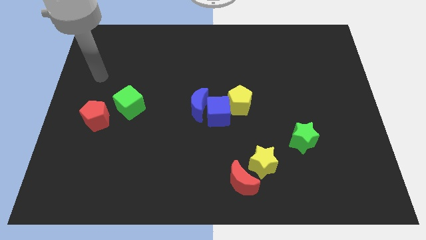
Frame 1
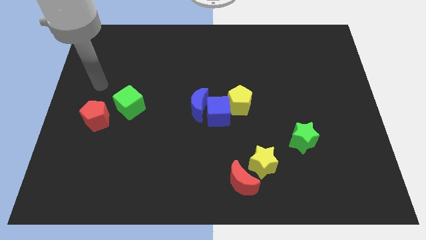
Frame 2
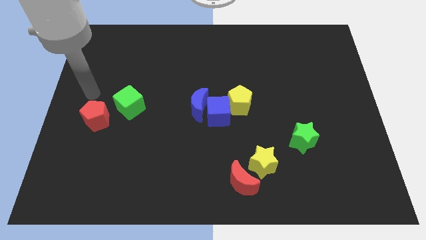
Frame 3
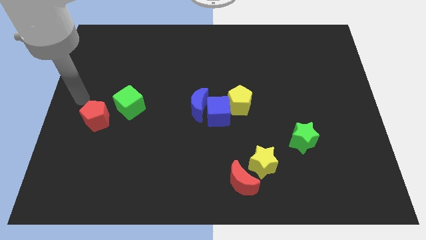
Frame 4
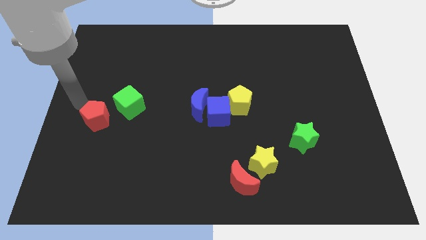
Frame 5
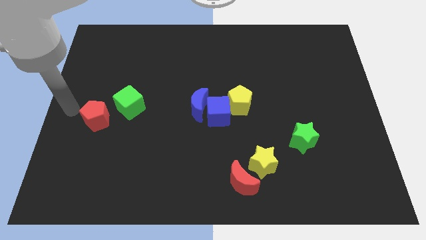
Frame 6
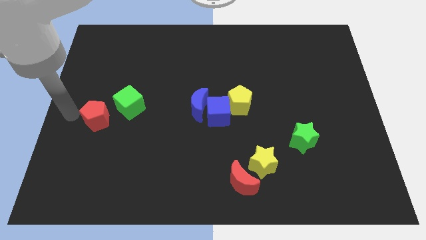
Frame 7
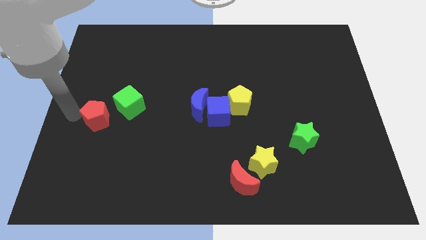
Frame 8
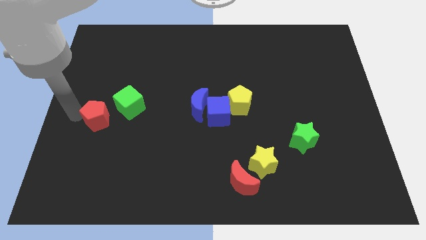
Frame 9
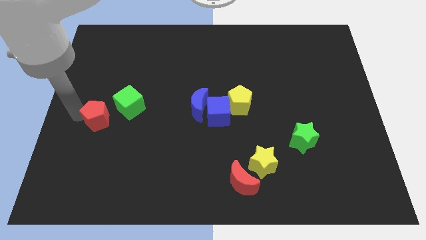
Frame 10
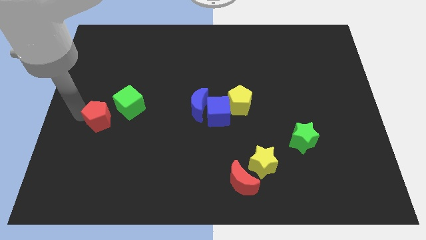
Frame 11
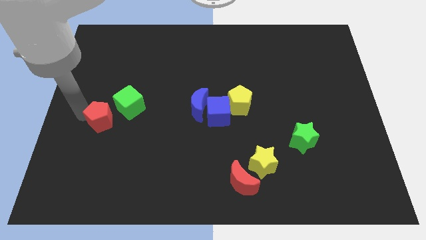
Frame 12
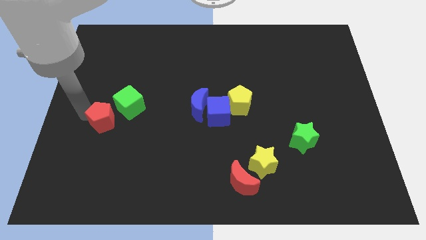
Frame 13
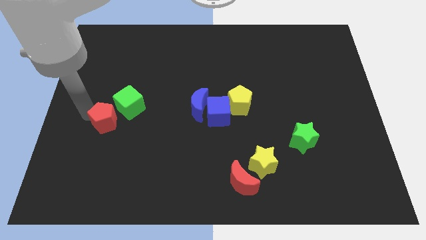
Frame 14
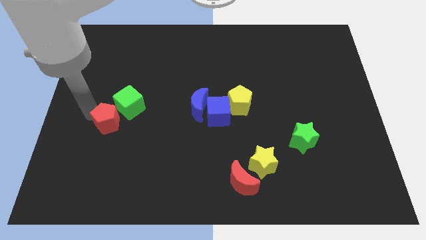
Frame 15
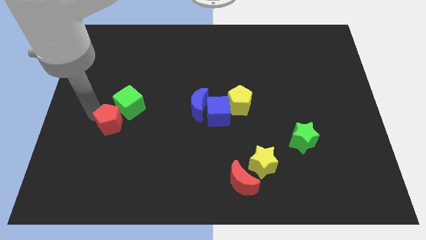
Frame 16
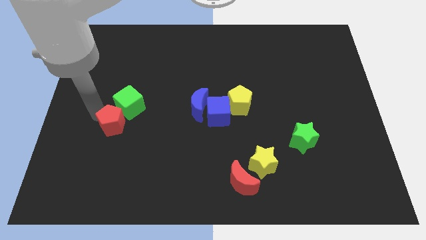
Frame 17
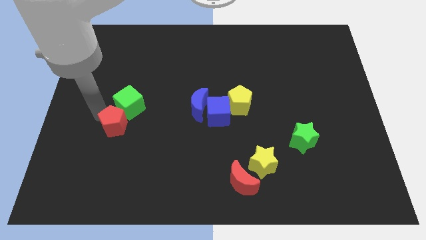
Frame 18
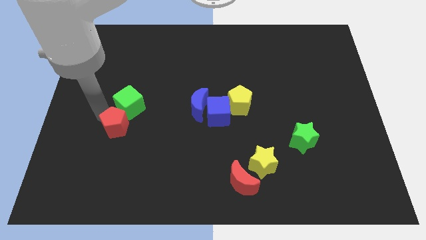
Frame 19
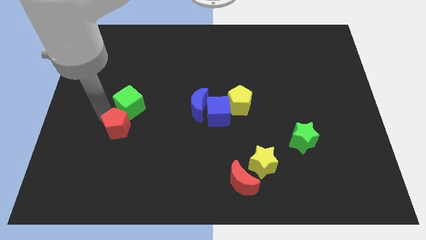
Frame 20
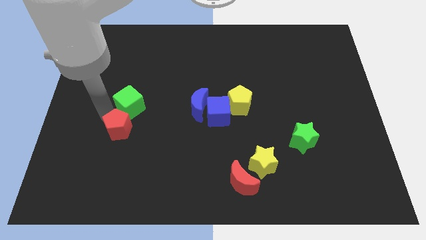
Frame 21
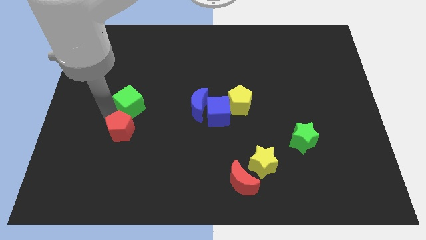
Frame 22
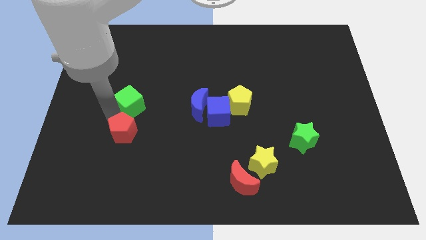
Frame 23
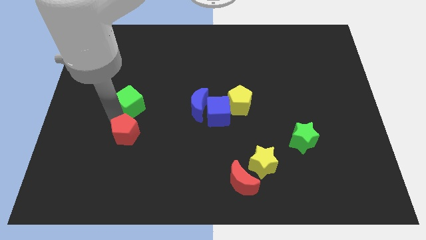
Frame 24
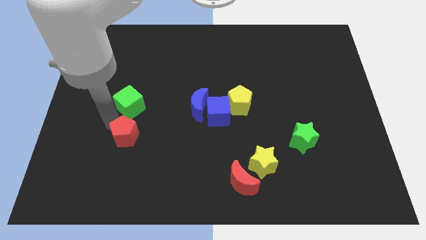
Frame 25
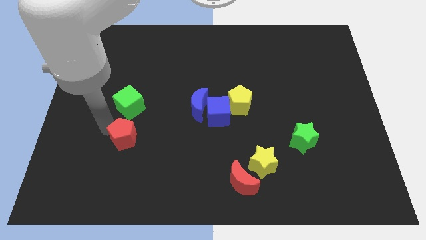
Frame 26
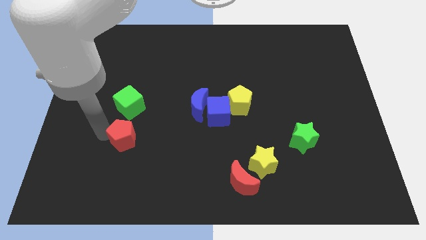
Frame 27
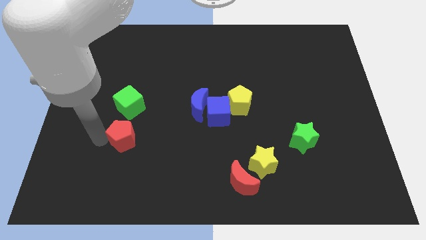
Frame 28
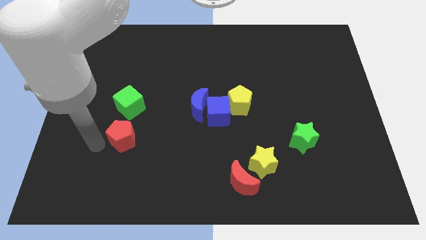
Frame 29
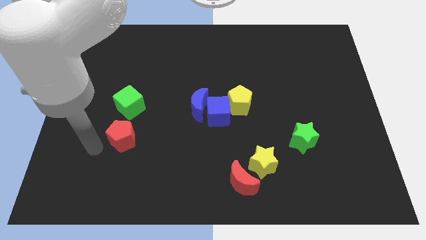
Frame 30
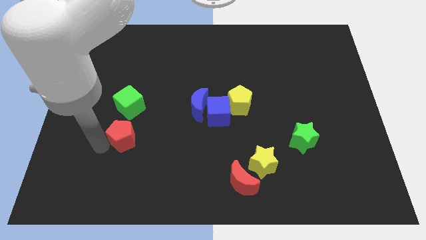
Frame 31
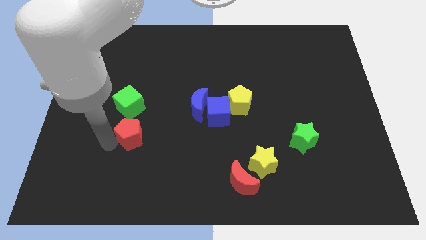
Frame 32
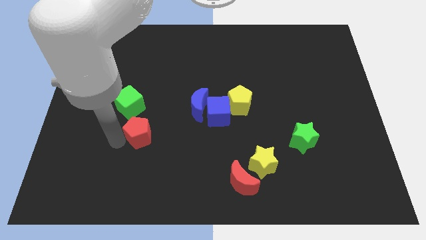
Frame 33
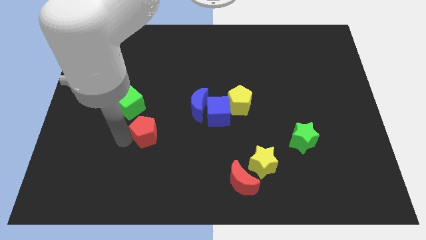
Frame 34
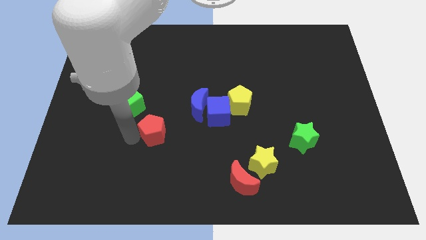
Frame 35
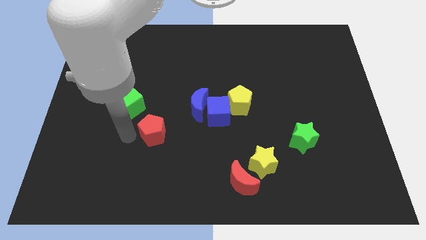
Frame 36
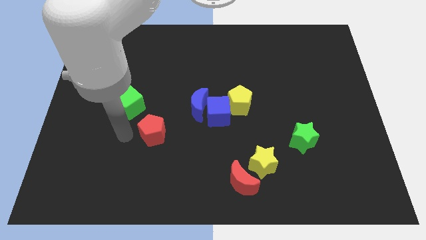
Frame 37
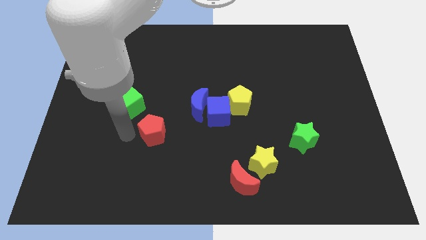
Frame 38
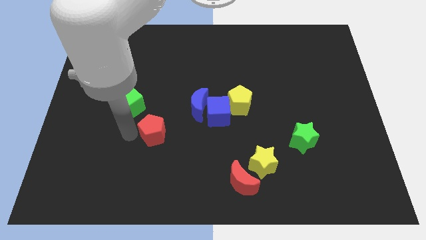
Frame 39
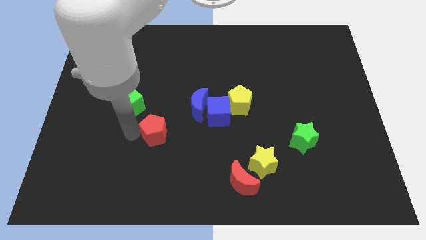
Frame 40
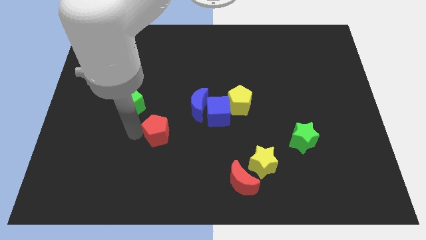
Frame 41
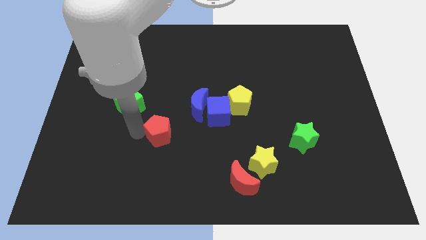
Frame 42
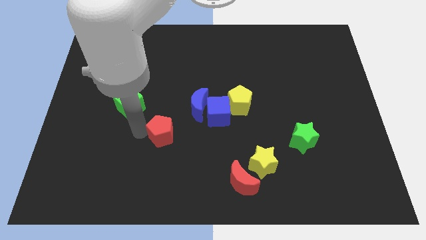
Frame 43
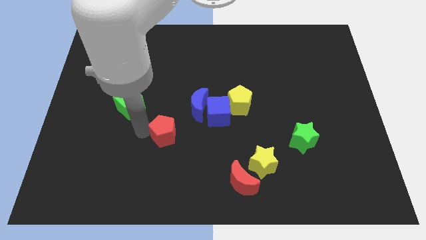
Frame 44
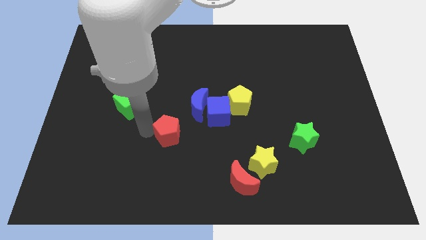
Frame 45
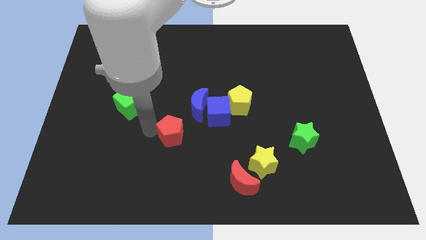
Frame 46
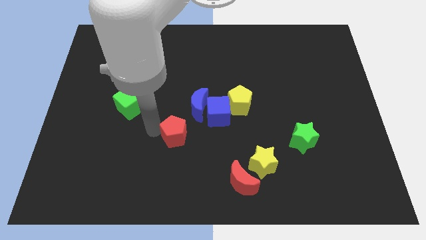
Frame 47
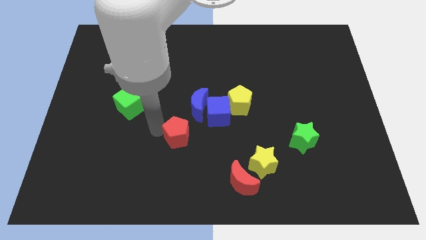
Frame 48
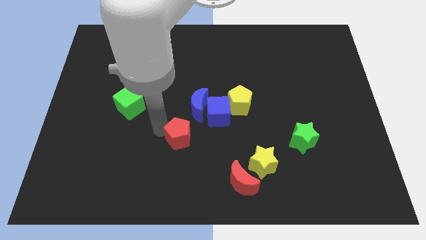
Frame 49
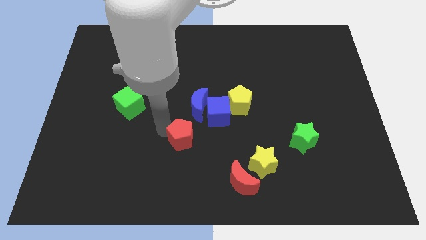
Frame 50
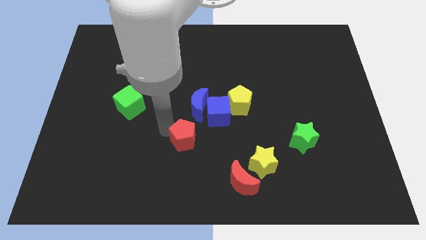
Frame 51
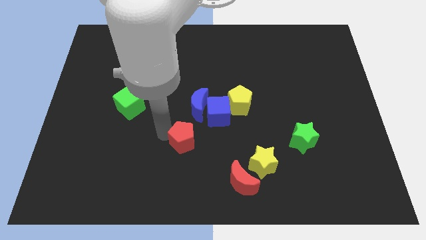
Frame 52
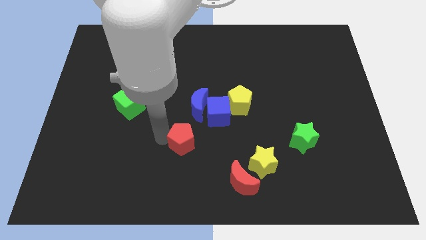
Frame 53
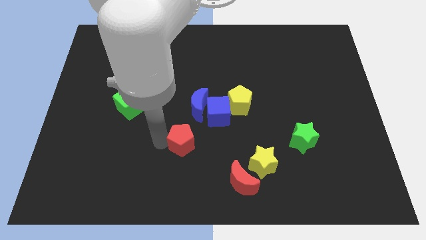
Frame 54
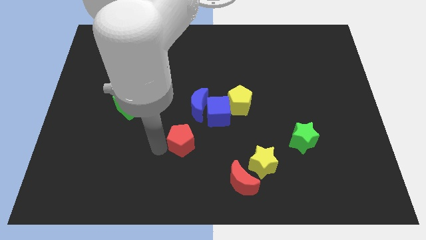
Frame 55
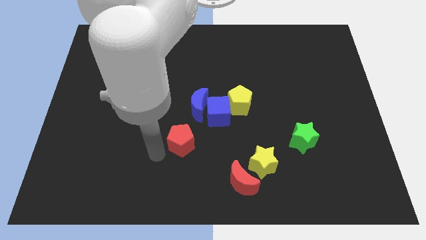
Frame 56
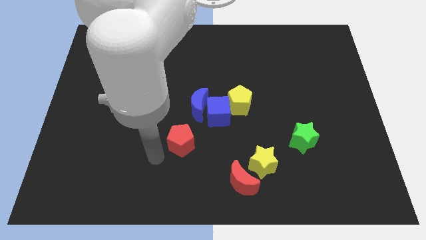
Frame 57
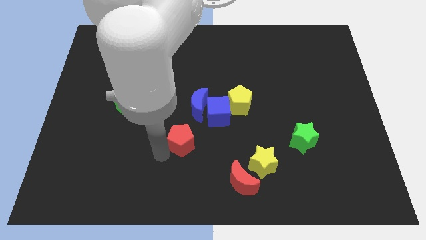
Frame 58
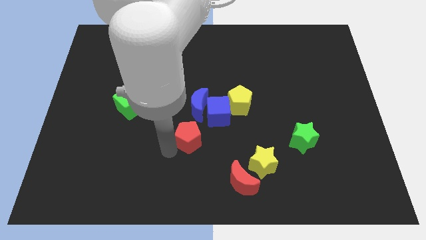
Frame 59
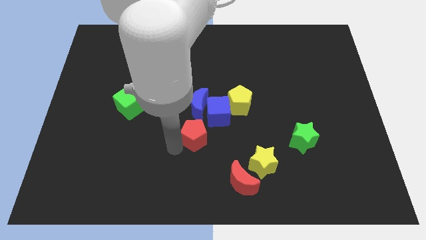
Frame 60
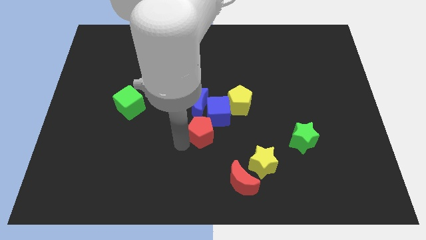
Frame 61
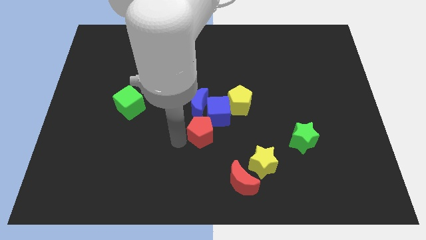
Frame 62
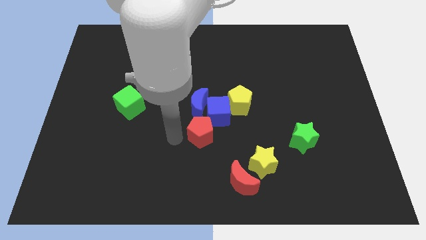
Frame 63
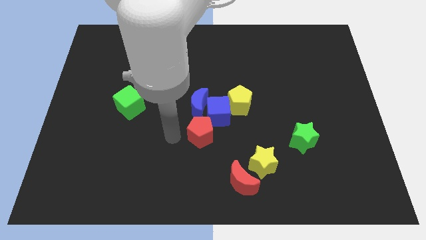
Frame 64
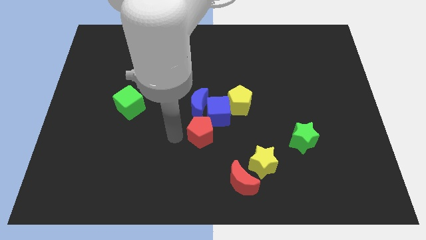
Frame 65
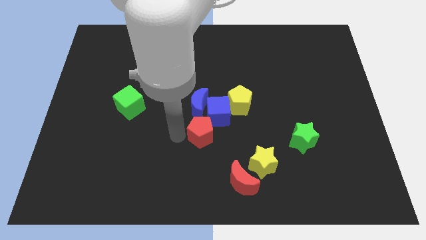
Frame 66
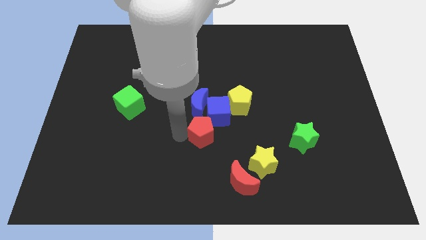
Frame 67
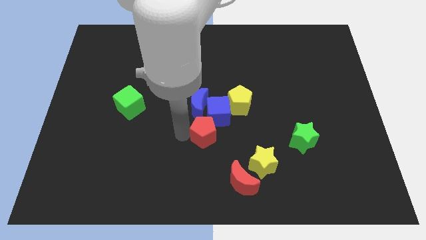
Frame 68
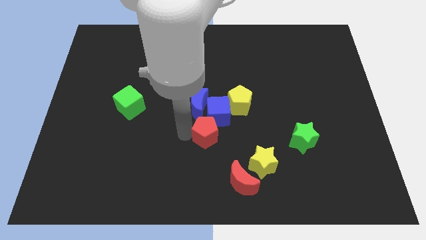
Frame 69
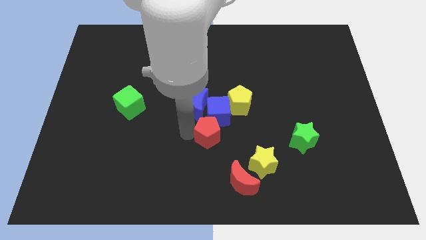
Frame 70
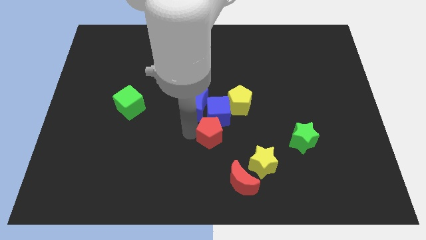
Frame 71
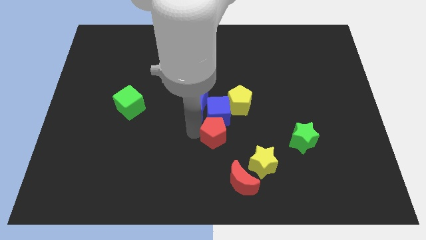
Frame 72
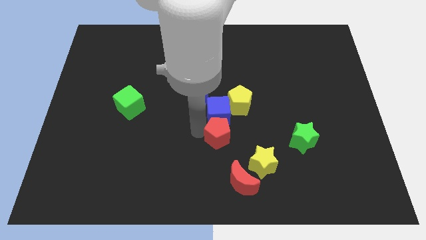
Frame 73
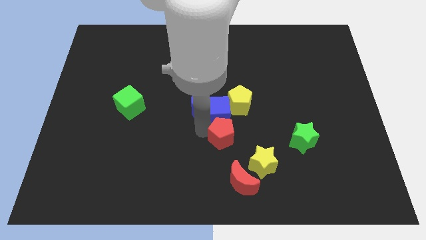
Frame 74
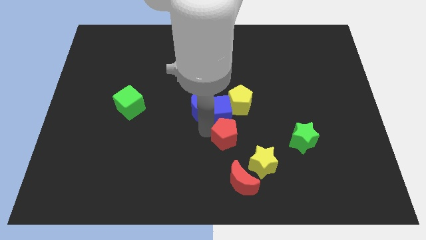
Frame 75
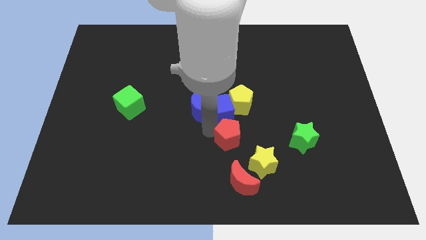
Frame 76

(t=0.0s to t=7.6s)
slide the red pentagon left of the green star

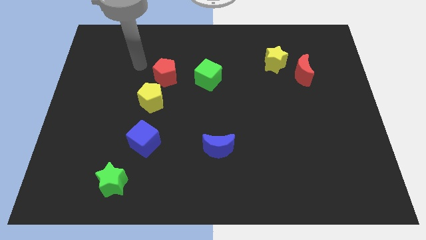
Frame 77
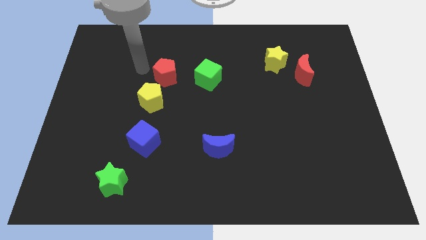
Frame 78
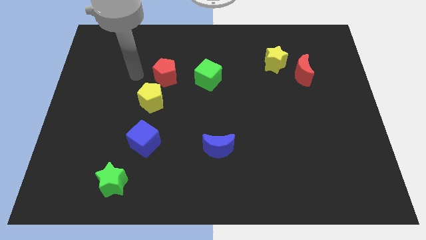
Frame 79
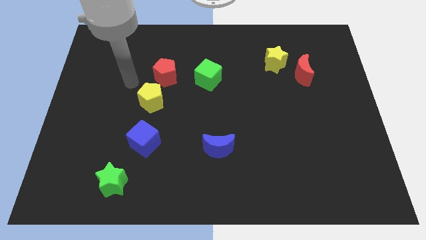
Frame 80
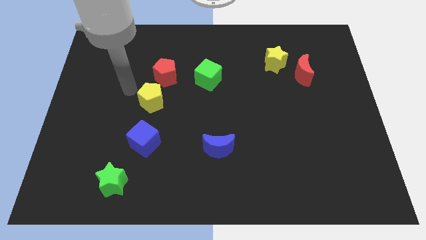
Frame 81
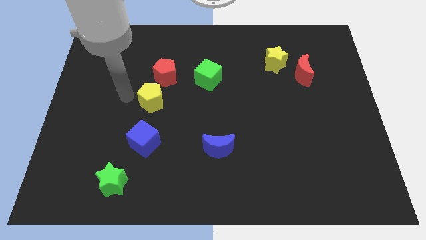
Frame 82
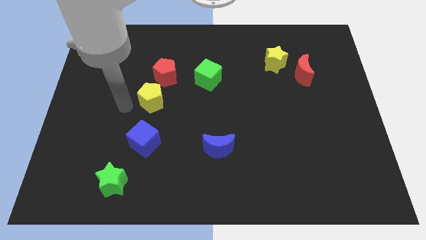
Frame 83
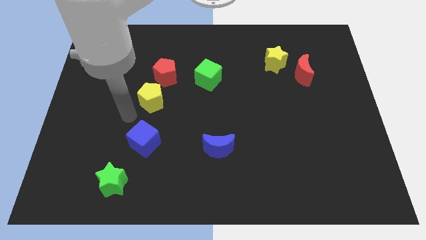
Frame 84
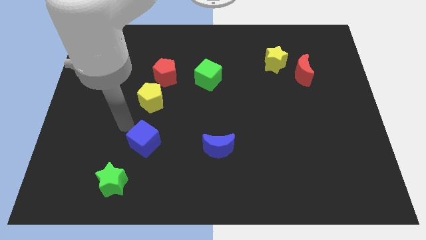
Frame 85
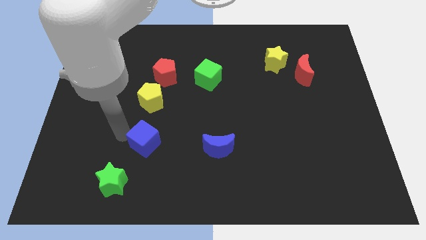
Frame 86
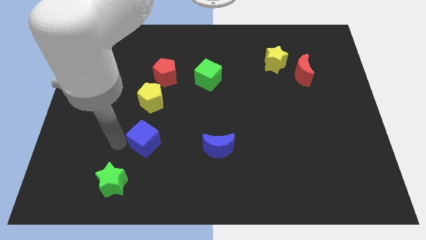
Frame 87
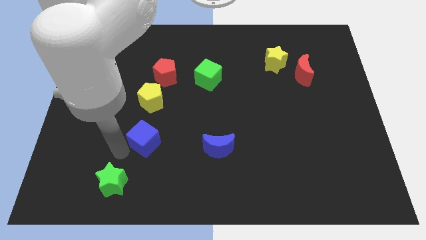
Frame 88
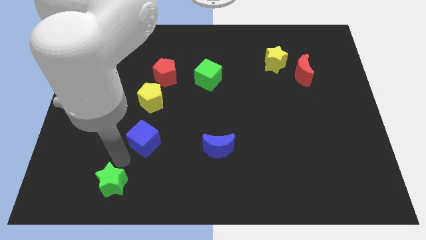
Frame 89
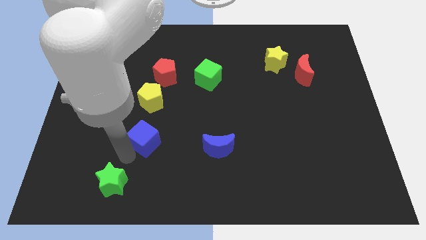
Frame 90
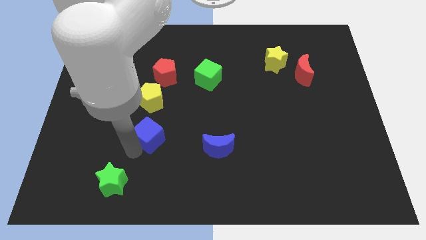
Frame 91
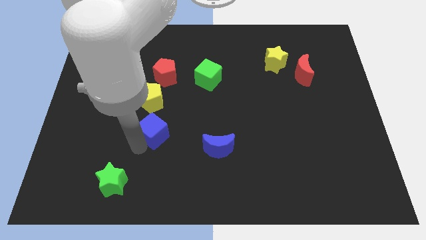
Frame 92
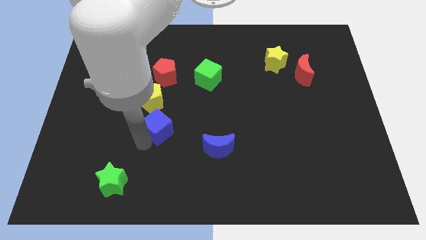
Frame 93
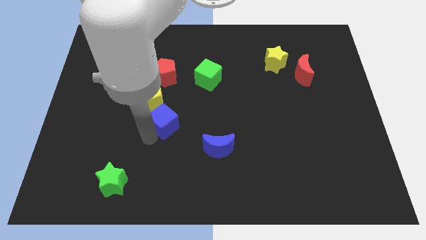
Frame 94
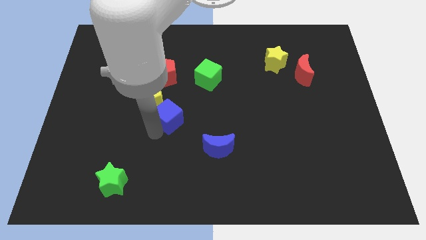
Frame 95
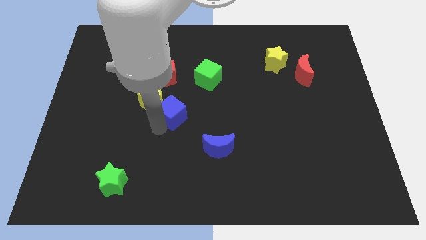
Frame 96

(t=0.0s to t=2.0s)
put the blue cube to the right side of the yellow pentagon
